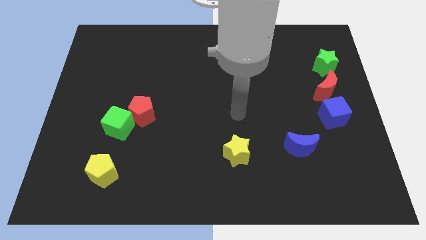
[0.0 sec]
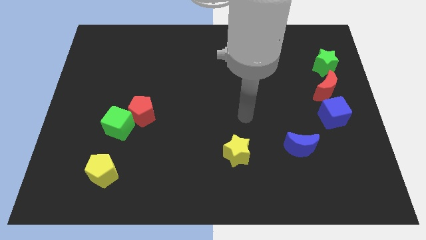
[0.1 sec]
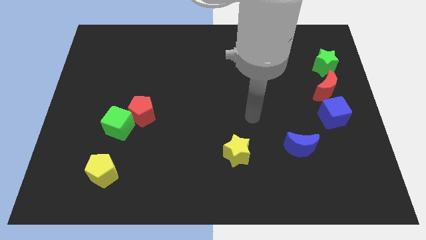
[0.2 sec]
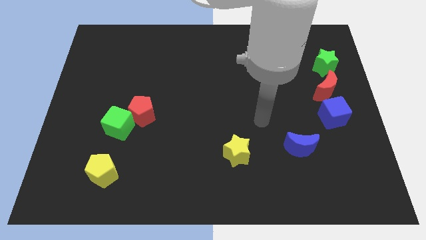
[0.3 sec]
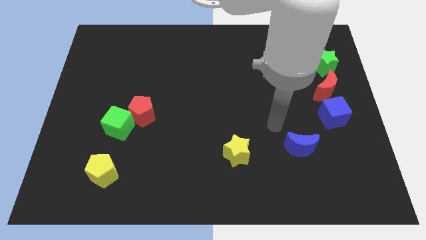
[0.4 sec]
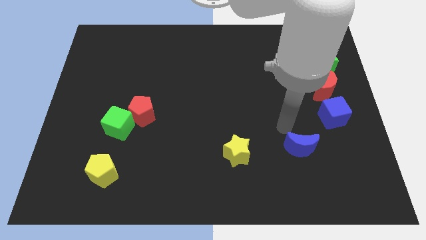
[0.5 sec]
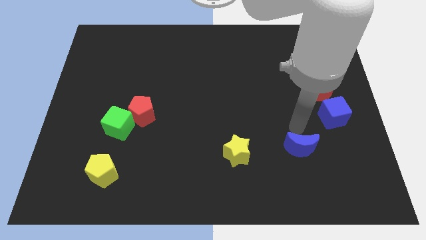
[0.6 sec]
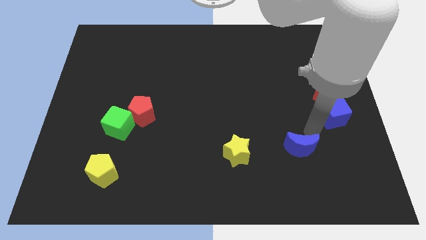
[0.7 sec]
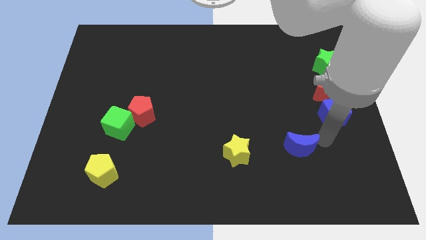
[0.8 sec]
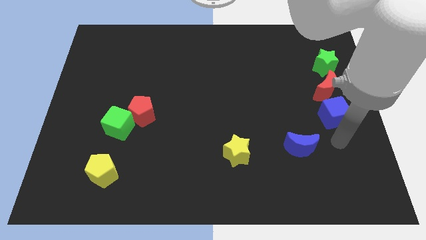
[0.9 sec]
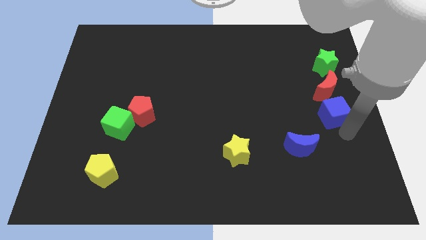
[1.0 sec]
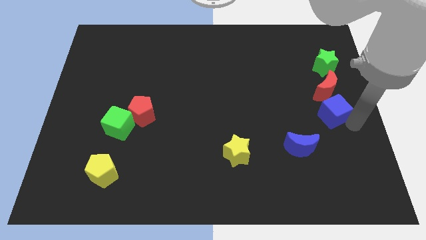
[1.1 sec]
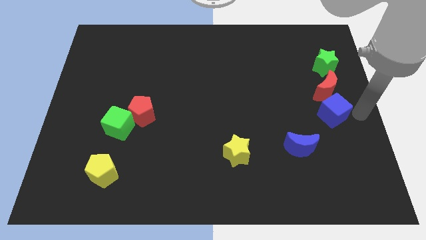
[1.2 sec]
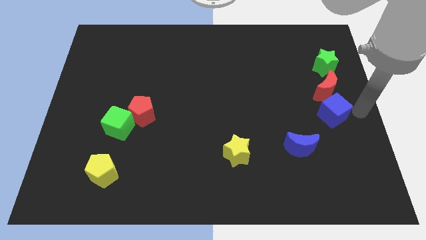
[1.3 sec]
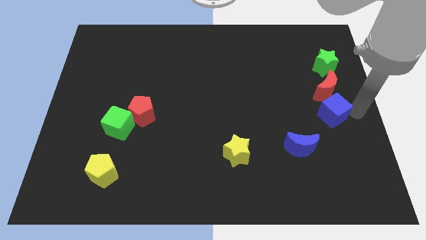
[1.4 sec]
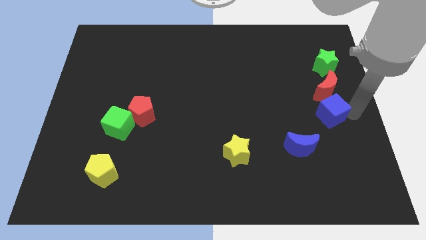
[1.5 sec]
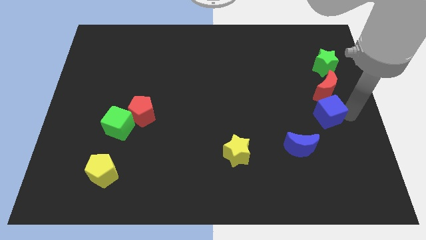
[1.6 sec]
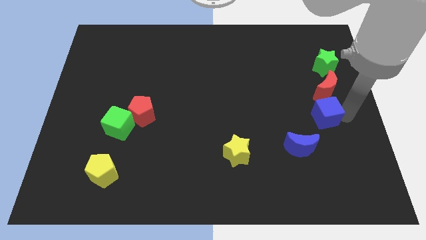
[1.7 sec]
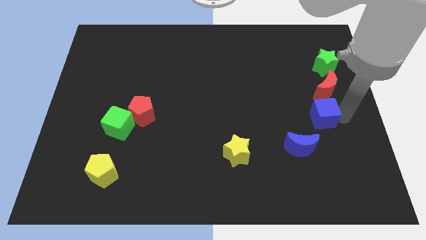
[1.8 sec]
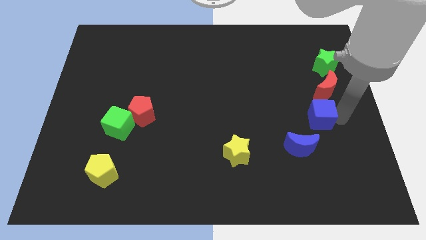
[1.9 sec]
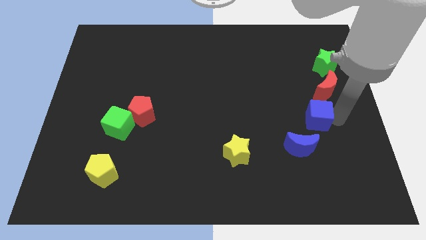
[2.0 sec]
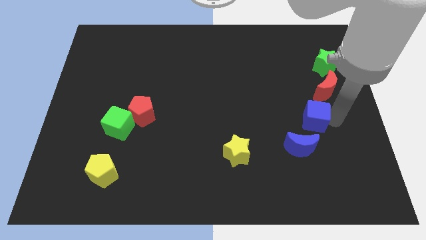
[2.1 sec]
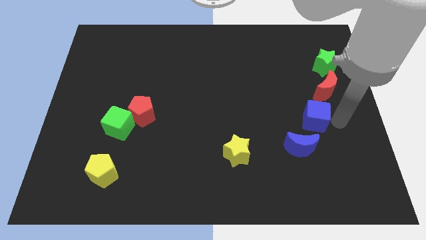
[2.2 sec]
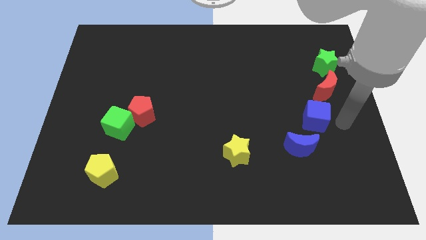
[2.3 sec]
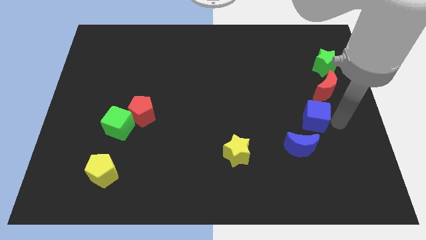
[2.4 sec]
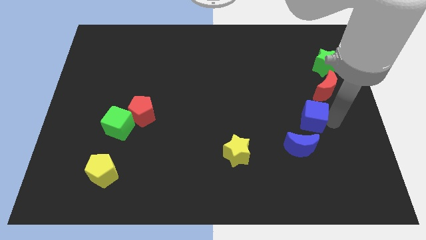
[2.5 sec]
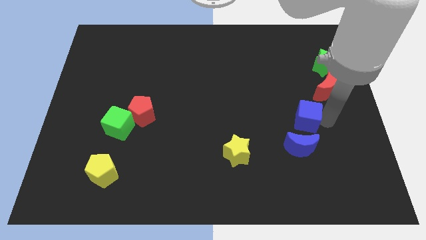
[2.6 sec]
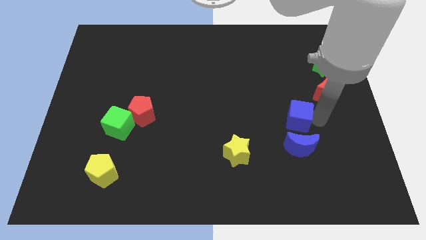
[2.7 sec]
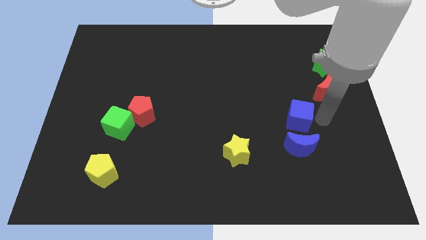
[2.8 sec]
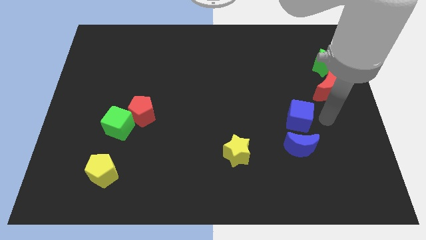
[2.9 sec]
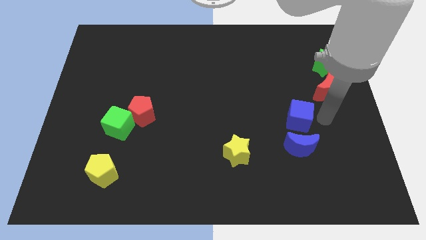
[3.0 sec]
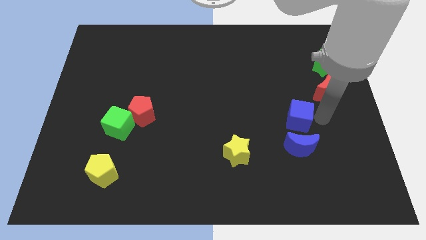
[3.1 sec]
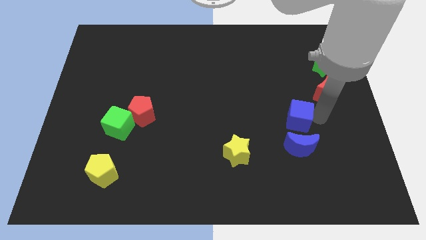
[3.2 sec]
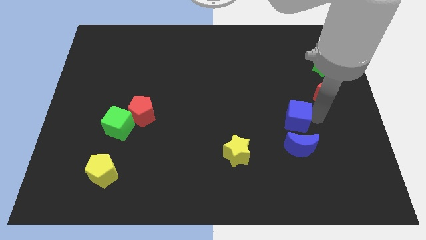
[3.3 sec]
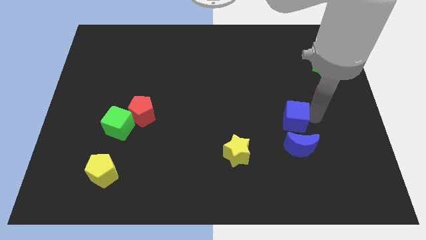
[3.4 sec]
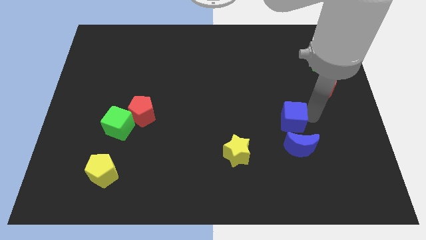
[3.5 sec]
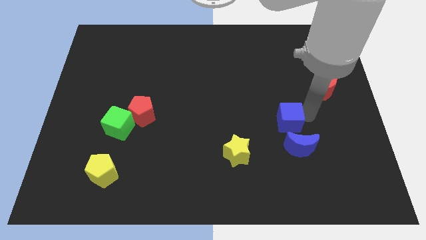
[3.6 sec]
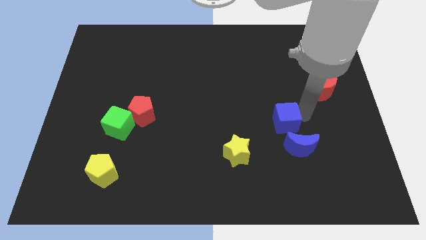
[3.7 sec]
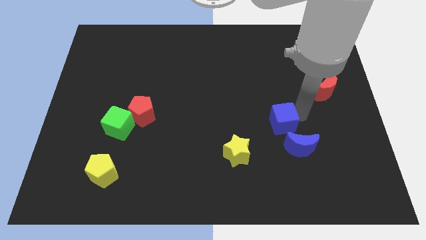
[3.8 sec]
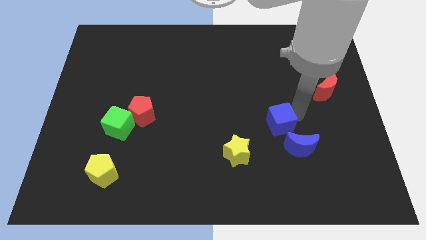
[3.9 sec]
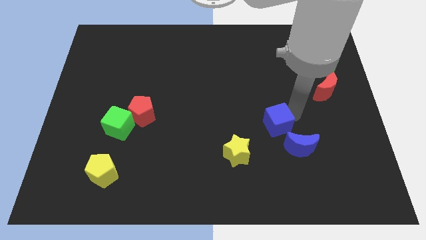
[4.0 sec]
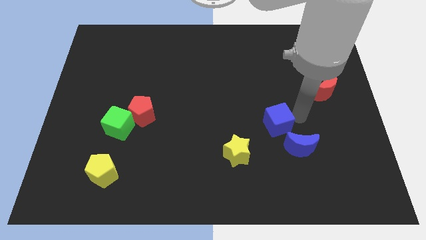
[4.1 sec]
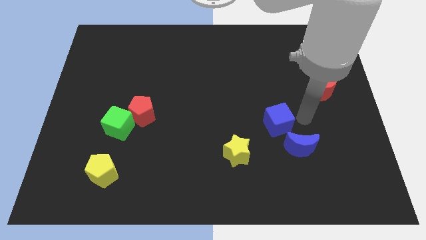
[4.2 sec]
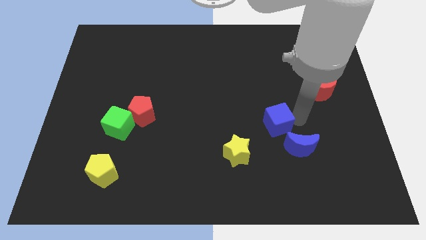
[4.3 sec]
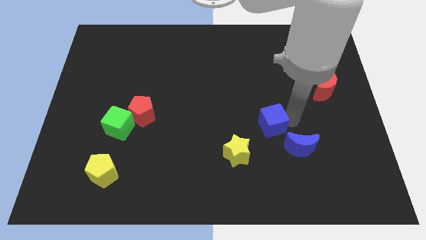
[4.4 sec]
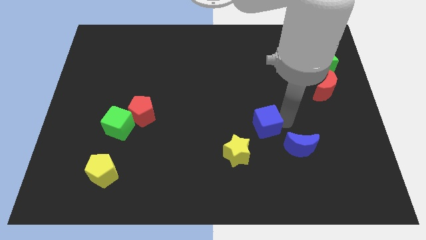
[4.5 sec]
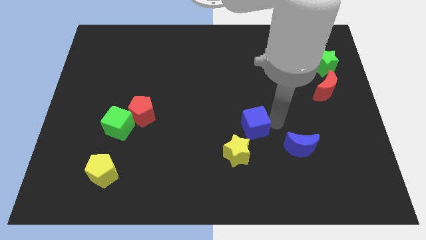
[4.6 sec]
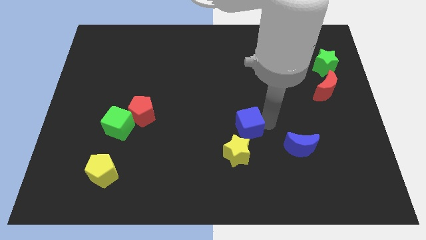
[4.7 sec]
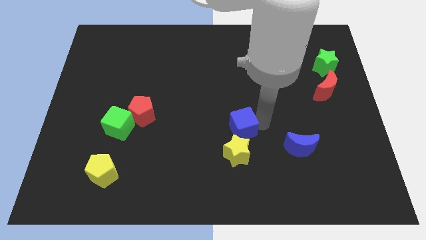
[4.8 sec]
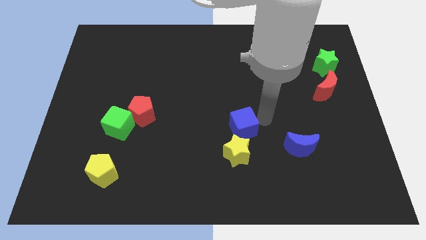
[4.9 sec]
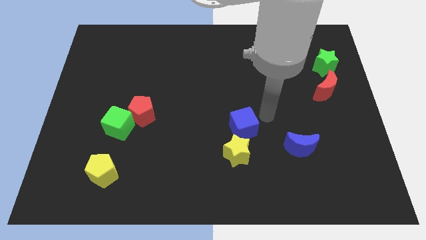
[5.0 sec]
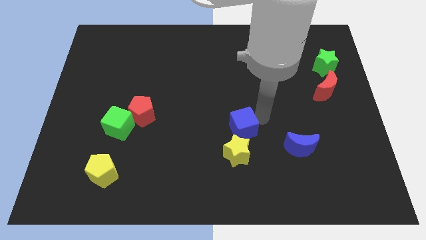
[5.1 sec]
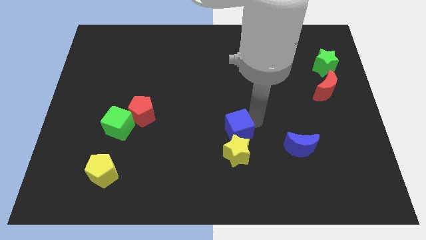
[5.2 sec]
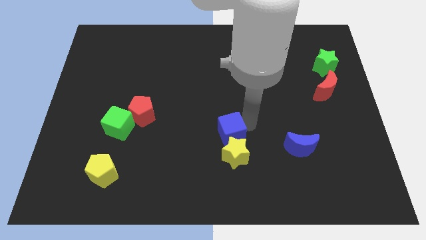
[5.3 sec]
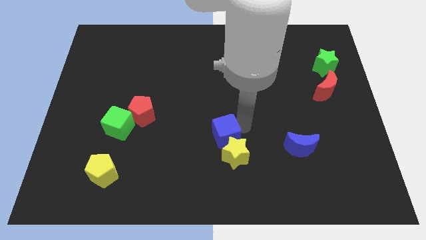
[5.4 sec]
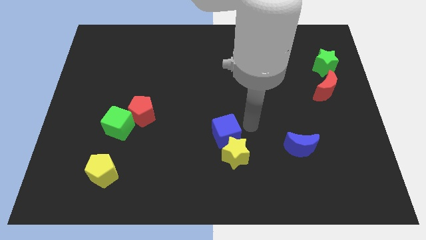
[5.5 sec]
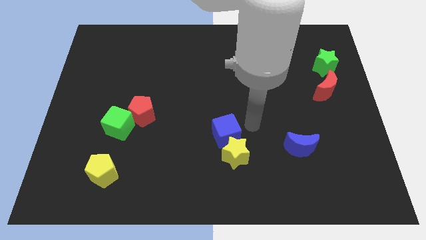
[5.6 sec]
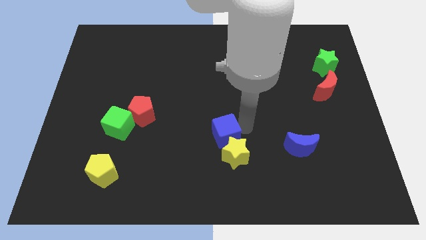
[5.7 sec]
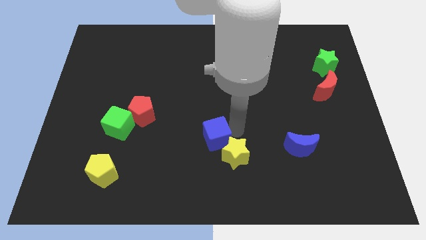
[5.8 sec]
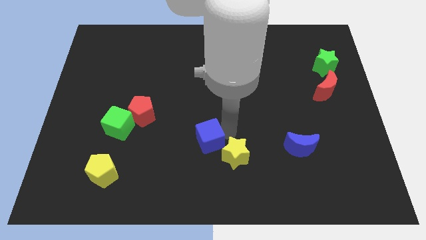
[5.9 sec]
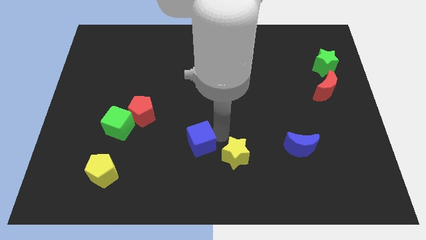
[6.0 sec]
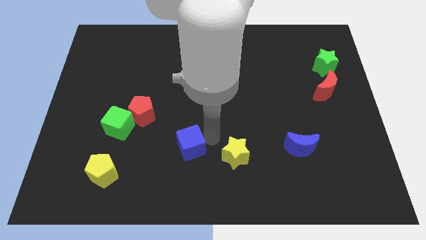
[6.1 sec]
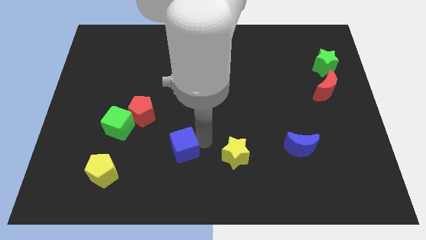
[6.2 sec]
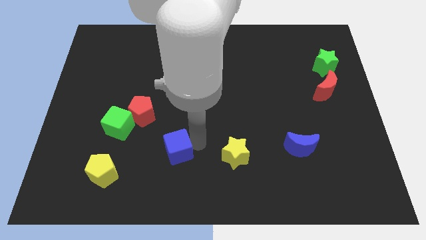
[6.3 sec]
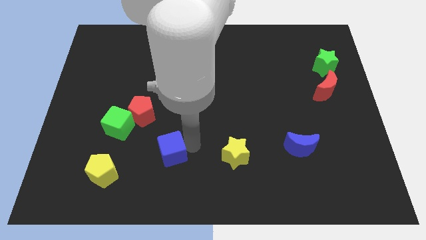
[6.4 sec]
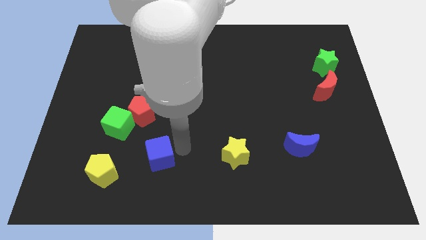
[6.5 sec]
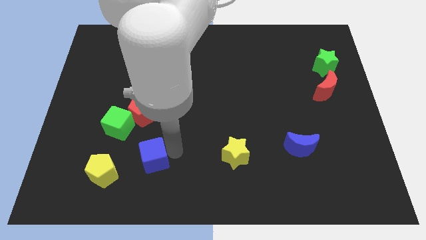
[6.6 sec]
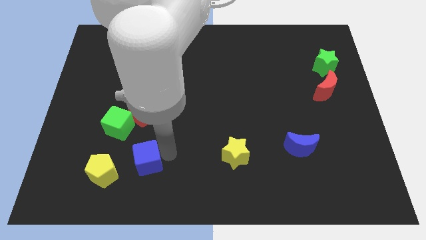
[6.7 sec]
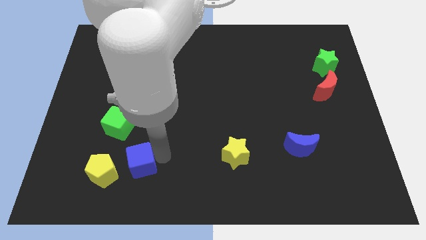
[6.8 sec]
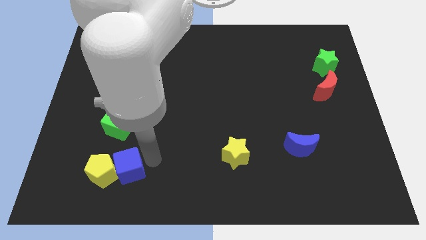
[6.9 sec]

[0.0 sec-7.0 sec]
put the blue cube close to the yellow pentagon

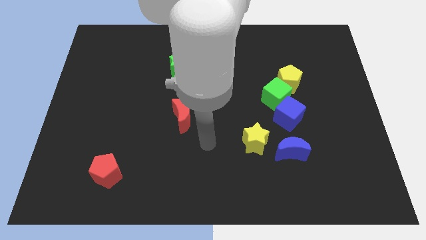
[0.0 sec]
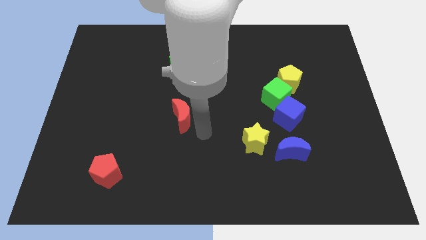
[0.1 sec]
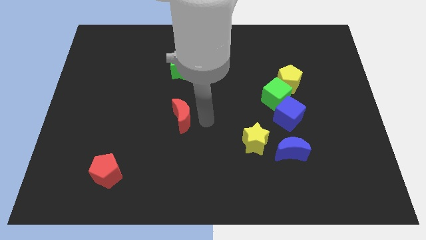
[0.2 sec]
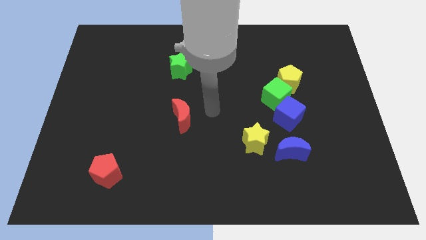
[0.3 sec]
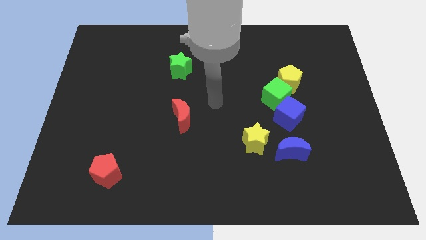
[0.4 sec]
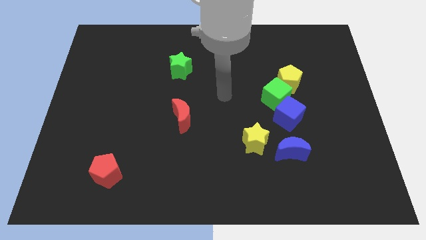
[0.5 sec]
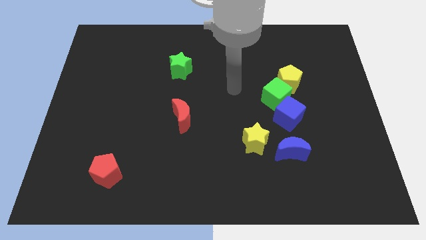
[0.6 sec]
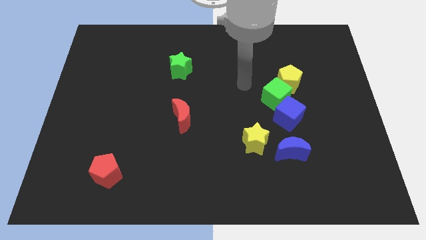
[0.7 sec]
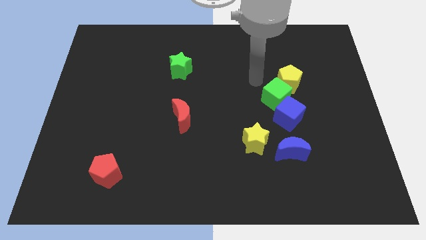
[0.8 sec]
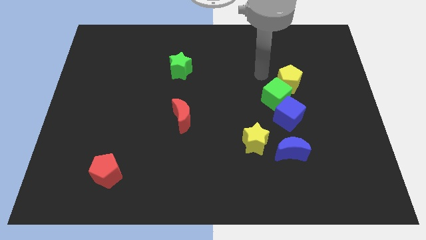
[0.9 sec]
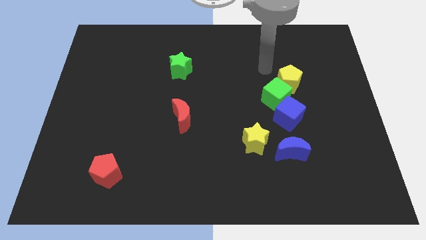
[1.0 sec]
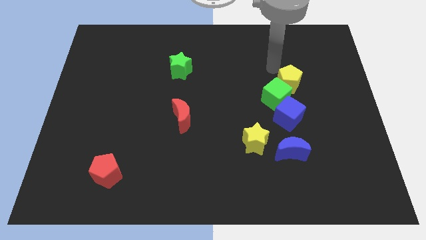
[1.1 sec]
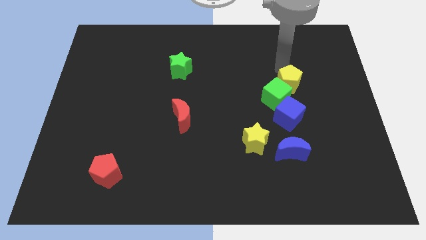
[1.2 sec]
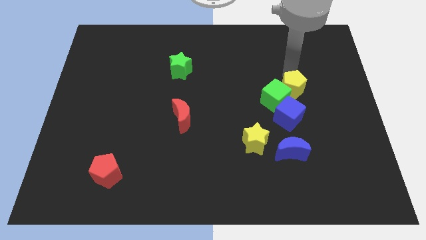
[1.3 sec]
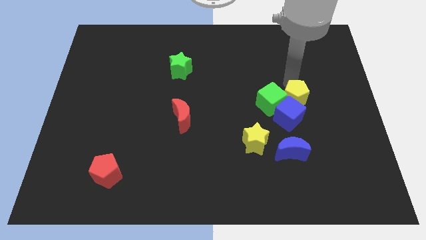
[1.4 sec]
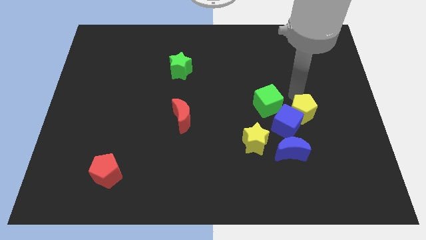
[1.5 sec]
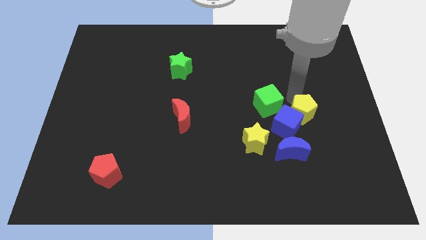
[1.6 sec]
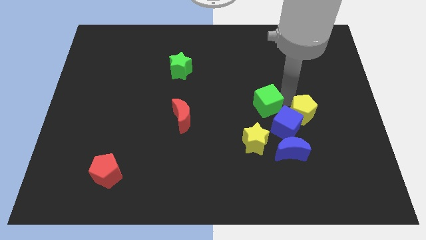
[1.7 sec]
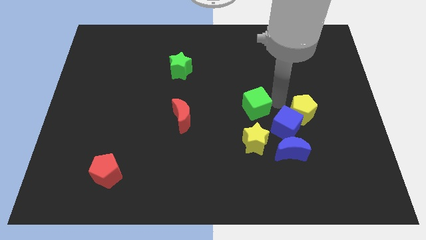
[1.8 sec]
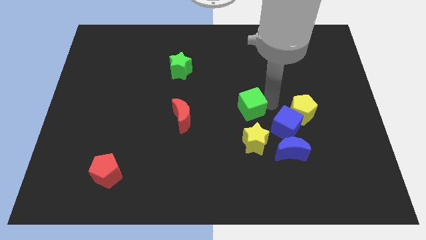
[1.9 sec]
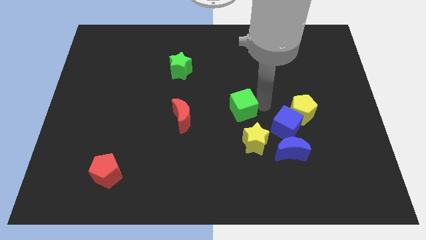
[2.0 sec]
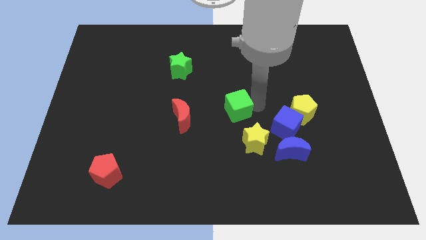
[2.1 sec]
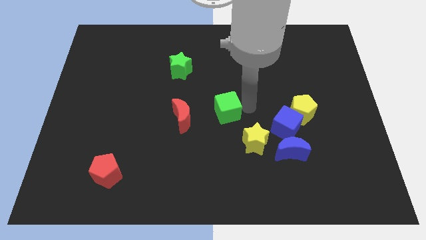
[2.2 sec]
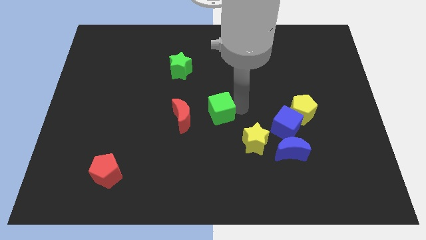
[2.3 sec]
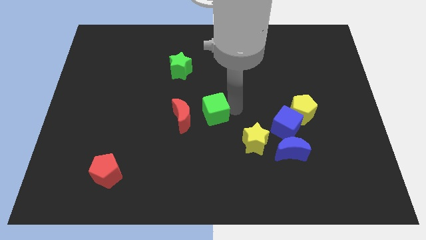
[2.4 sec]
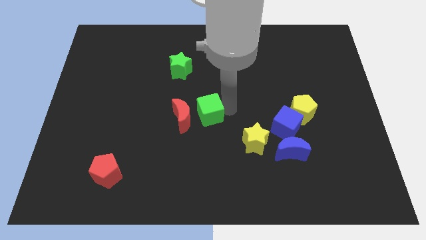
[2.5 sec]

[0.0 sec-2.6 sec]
push the green cube to the red moon
